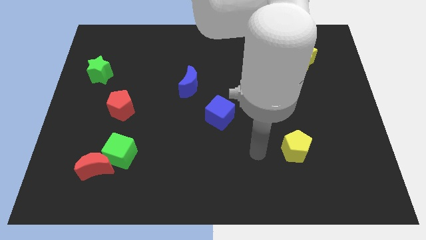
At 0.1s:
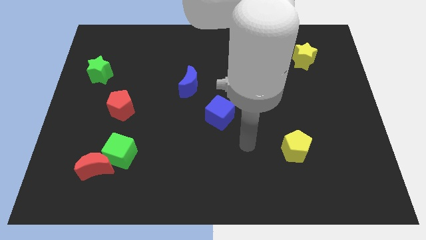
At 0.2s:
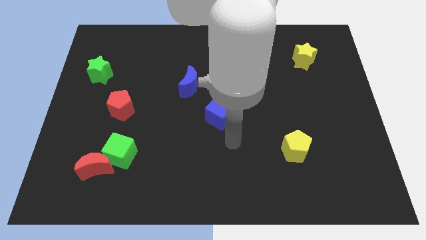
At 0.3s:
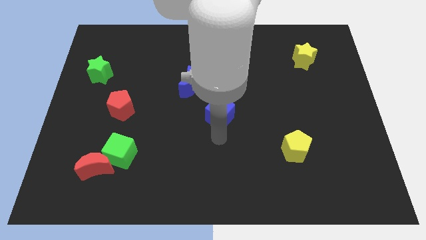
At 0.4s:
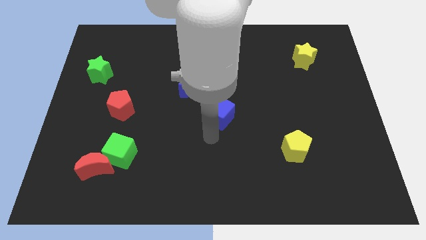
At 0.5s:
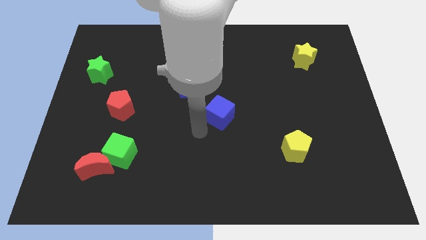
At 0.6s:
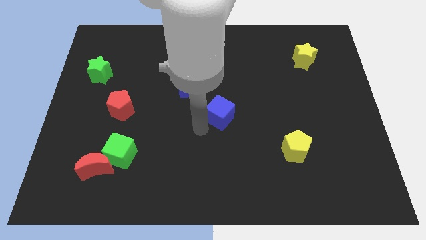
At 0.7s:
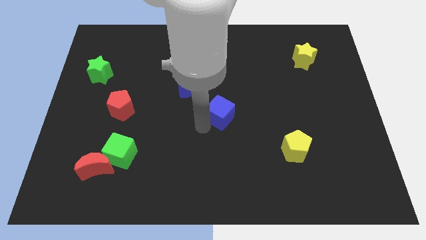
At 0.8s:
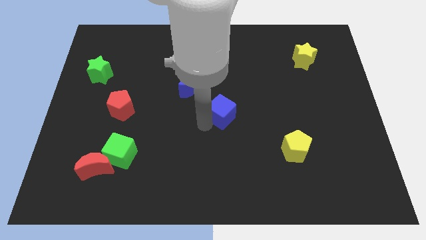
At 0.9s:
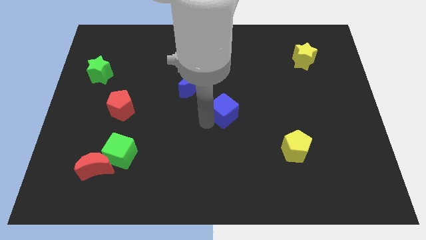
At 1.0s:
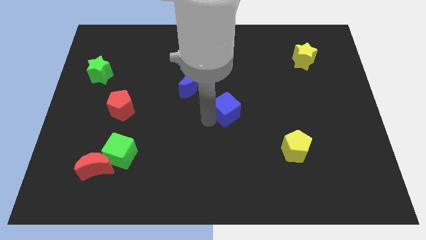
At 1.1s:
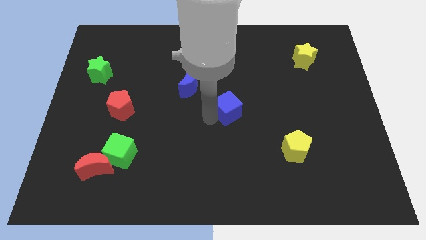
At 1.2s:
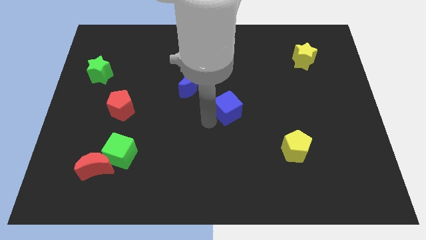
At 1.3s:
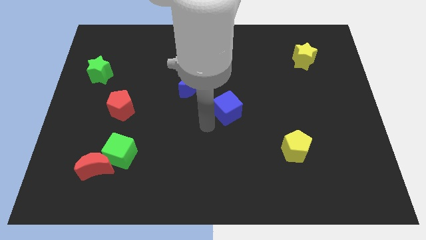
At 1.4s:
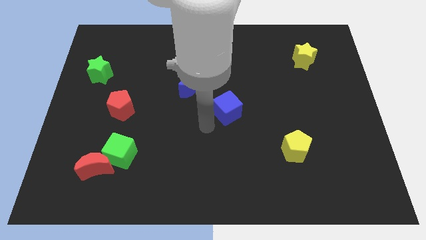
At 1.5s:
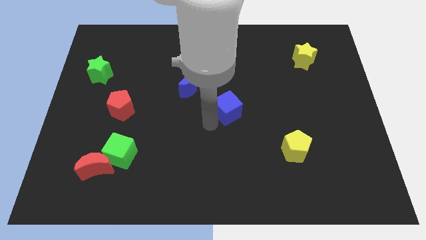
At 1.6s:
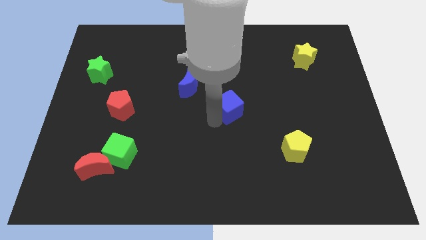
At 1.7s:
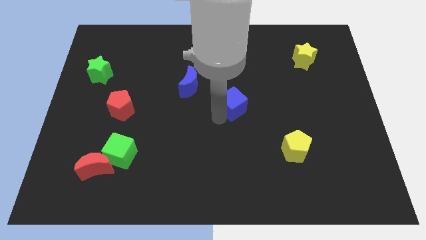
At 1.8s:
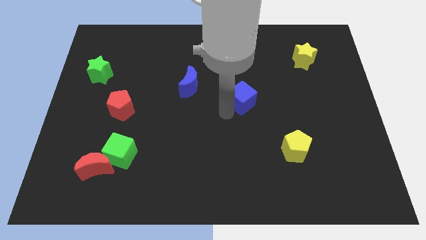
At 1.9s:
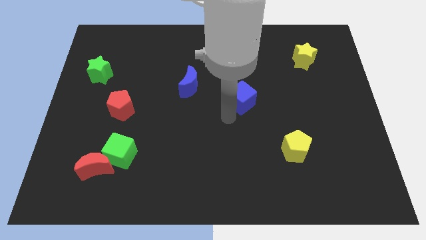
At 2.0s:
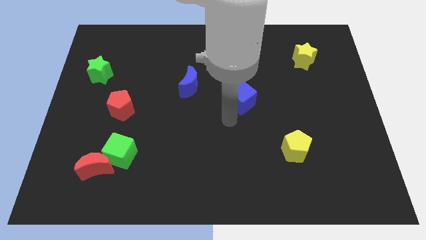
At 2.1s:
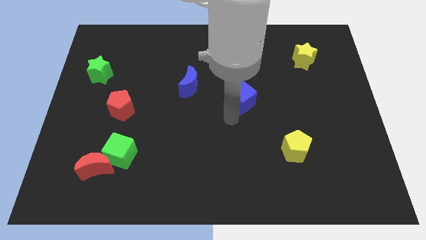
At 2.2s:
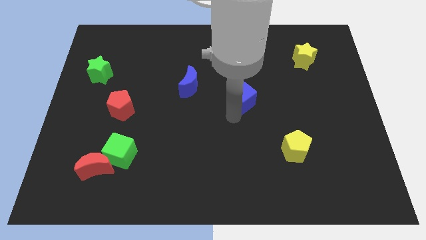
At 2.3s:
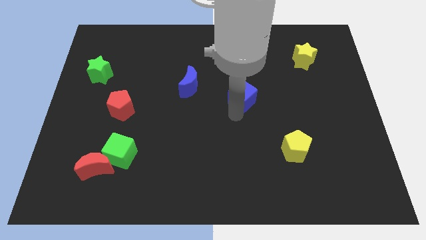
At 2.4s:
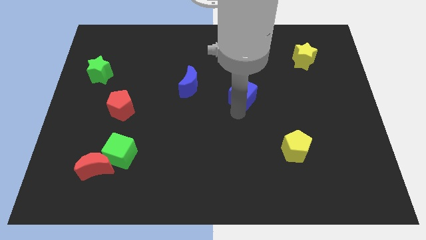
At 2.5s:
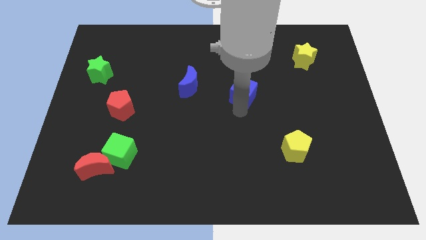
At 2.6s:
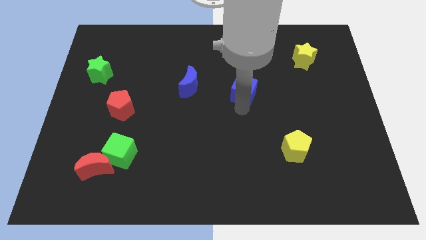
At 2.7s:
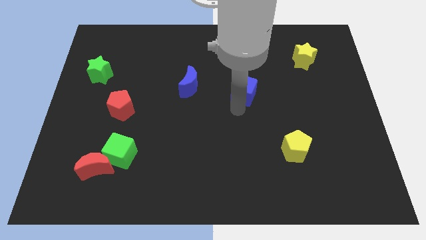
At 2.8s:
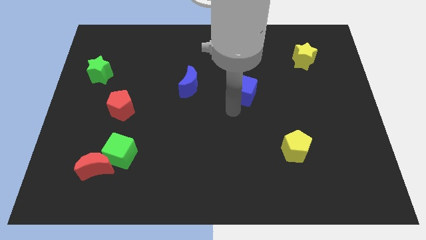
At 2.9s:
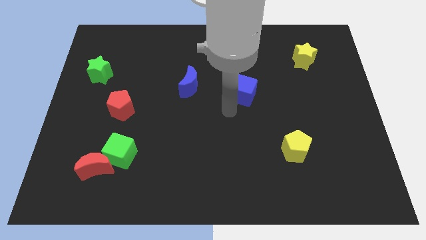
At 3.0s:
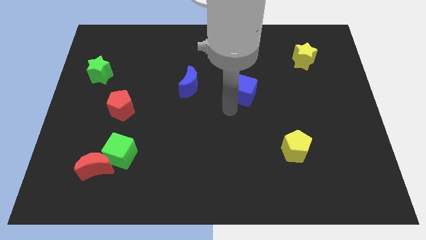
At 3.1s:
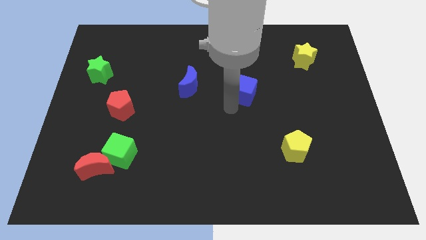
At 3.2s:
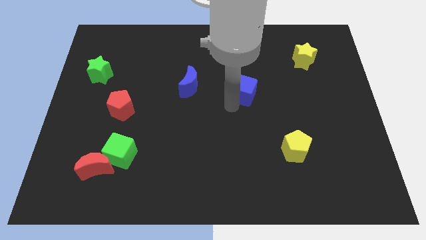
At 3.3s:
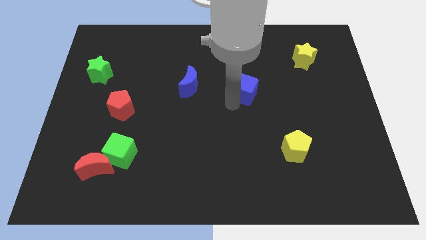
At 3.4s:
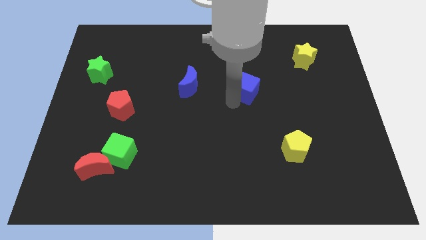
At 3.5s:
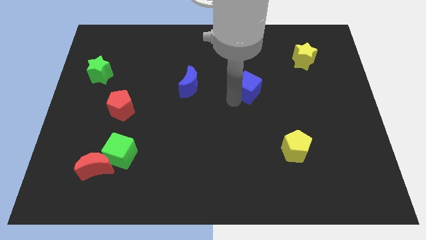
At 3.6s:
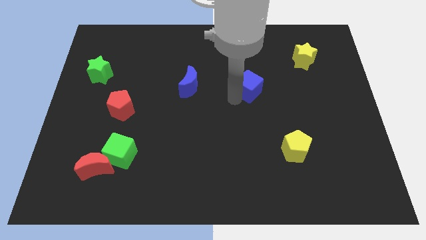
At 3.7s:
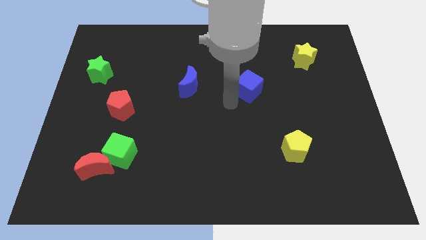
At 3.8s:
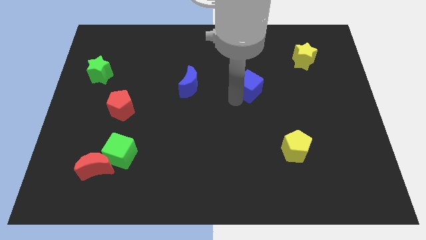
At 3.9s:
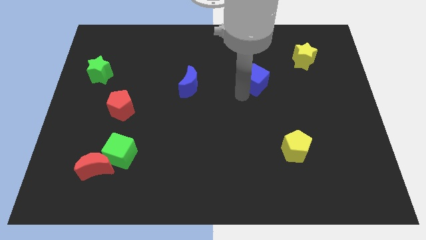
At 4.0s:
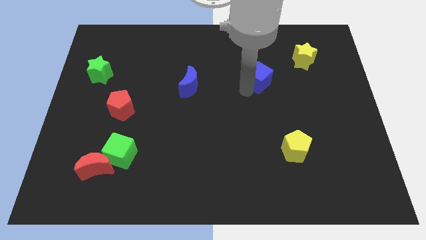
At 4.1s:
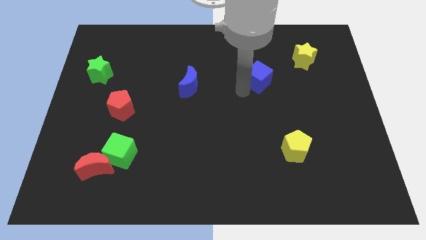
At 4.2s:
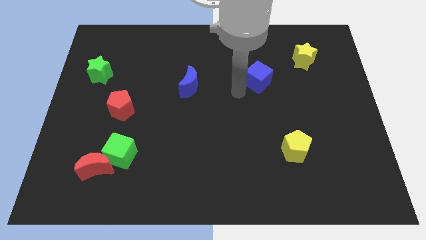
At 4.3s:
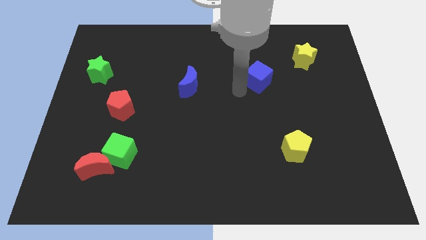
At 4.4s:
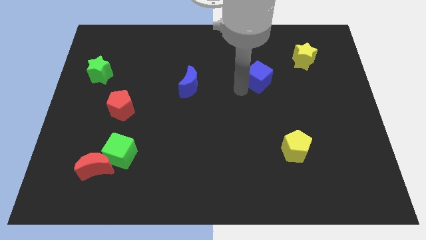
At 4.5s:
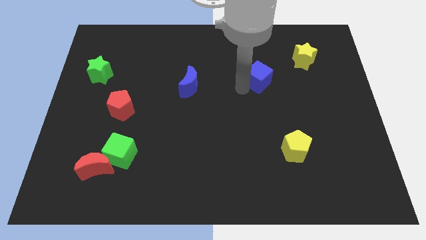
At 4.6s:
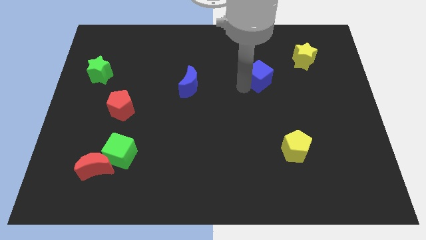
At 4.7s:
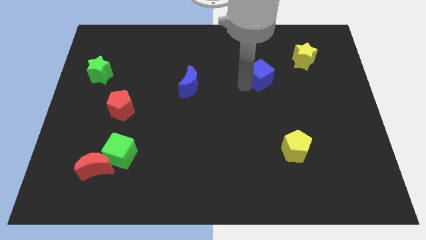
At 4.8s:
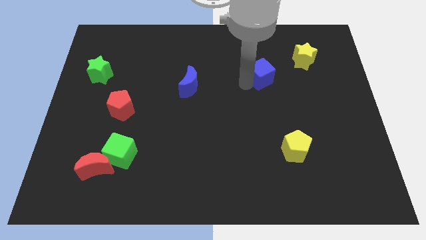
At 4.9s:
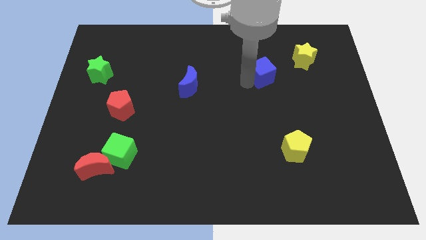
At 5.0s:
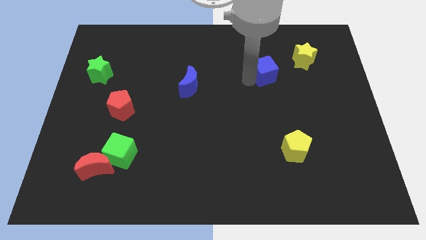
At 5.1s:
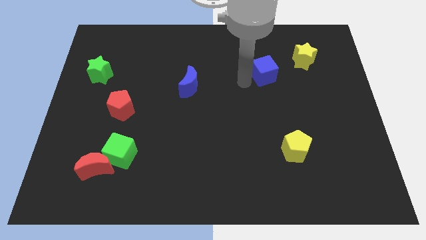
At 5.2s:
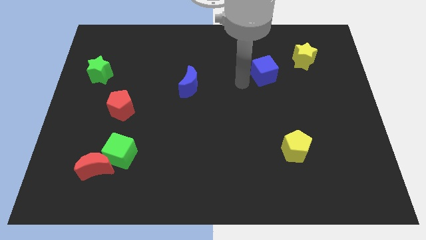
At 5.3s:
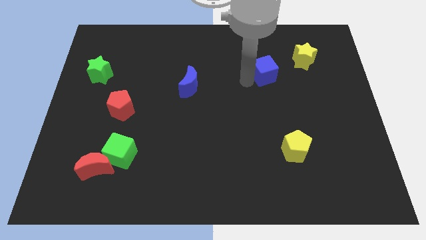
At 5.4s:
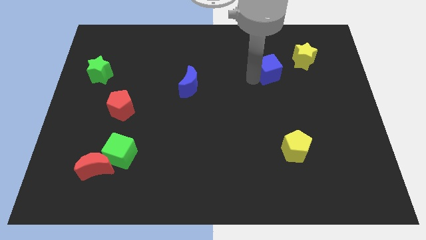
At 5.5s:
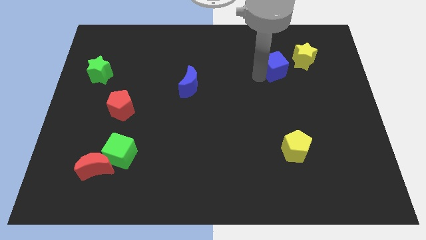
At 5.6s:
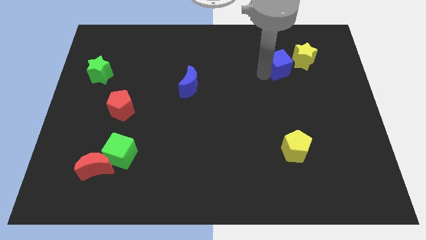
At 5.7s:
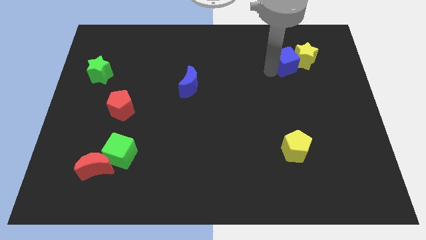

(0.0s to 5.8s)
push the blue cube close to the yellow star

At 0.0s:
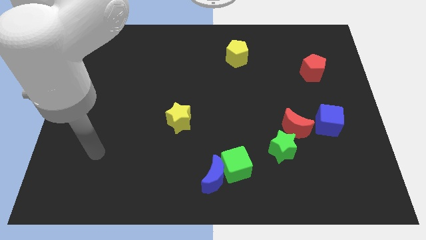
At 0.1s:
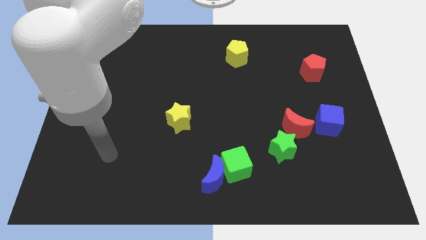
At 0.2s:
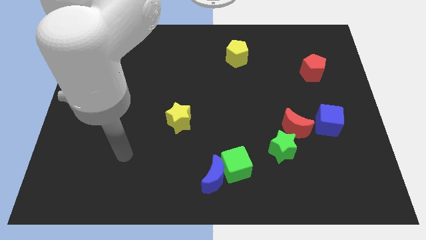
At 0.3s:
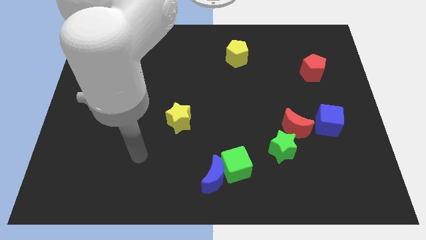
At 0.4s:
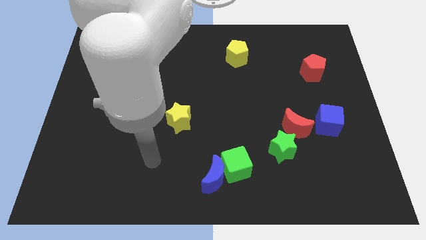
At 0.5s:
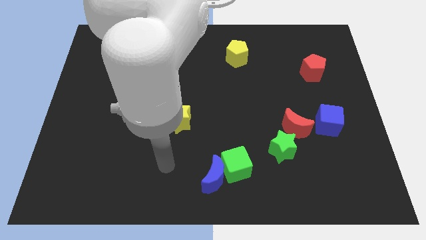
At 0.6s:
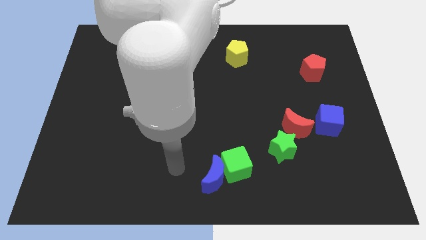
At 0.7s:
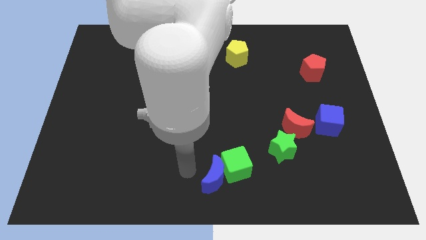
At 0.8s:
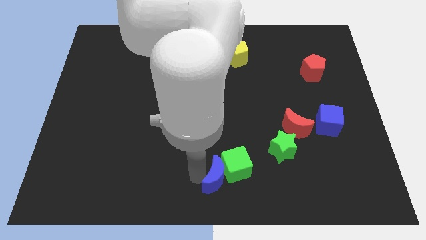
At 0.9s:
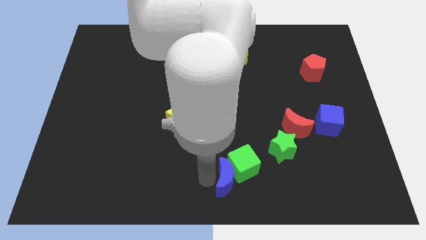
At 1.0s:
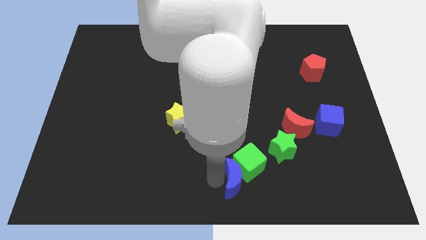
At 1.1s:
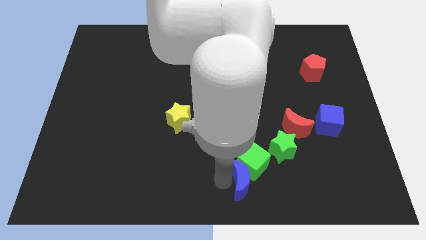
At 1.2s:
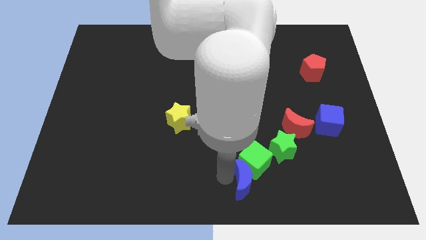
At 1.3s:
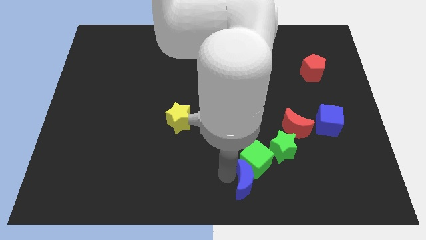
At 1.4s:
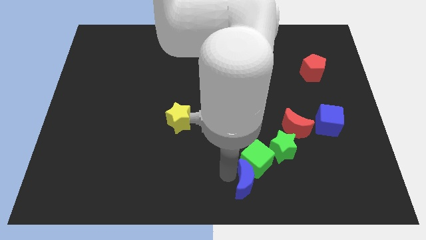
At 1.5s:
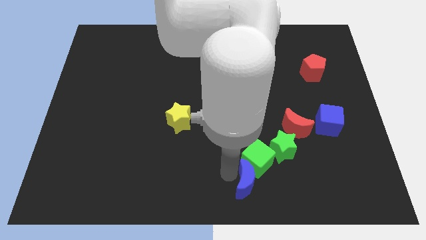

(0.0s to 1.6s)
push the green cube to the green star
